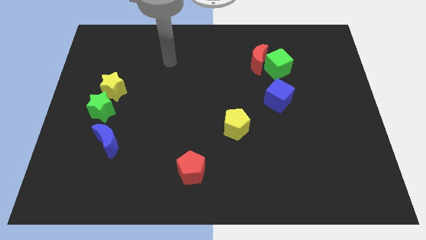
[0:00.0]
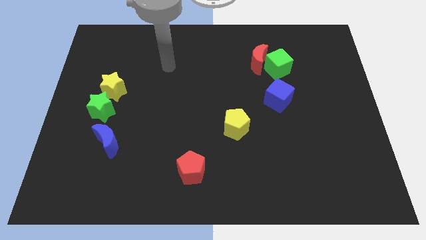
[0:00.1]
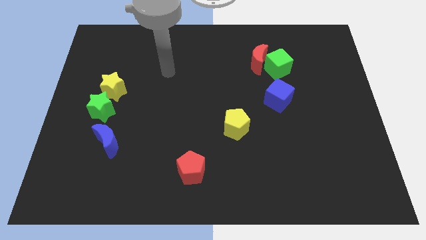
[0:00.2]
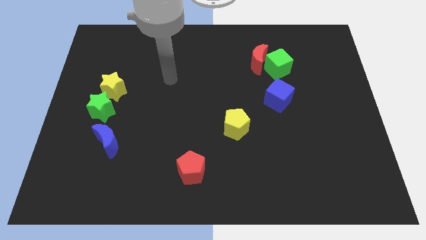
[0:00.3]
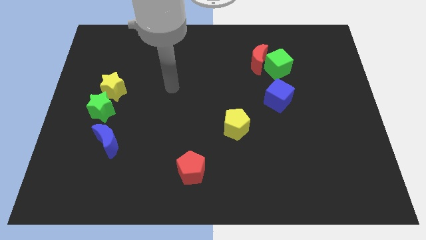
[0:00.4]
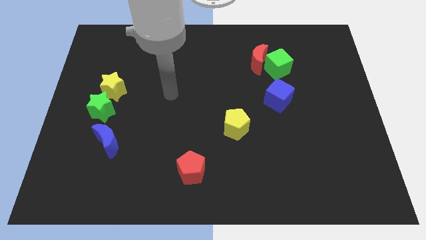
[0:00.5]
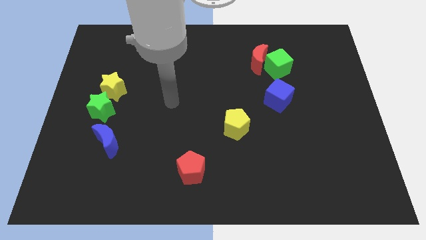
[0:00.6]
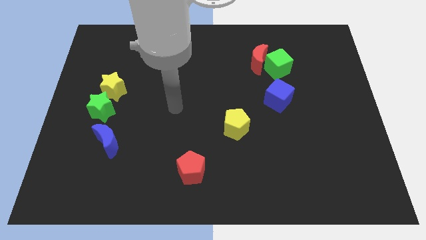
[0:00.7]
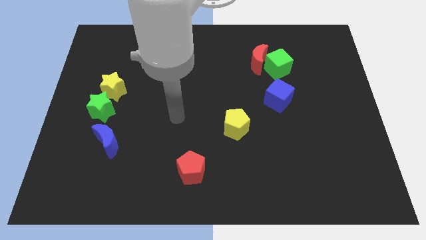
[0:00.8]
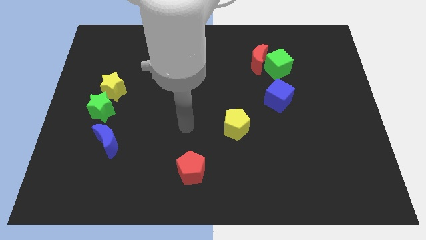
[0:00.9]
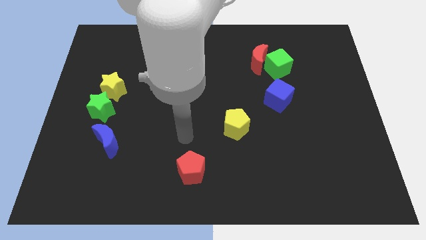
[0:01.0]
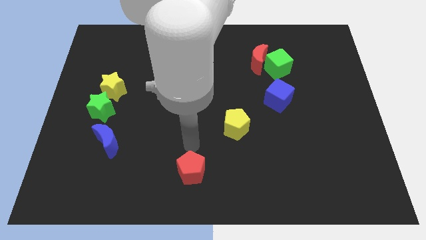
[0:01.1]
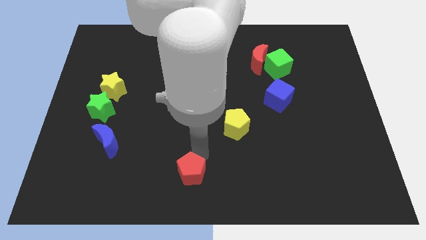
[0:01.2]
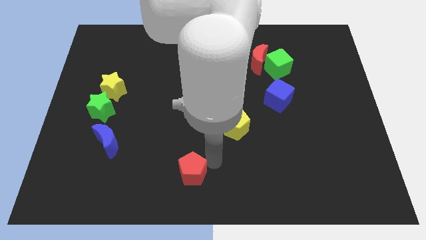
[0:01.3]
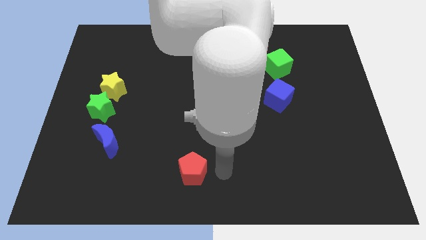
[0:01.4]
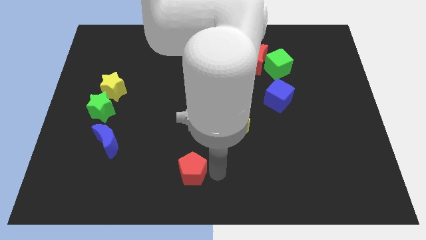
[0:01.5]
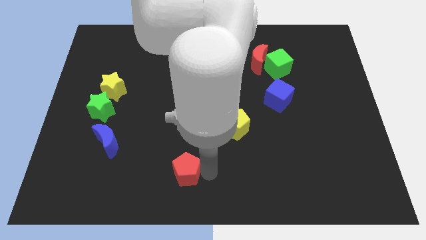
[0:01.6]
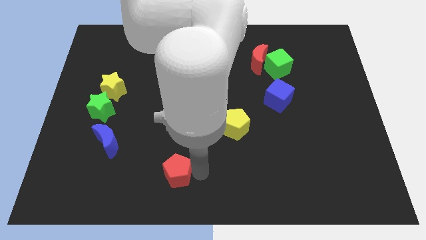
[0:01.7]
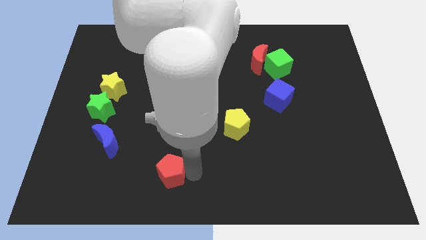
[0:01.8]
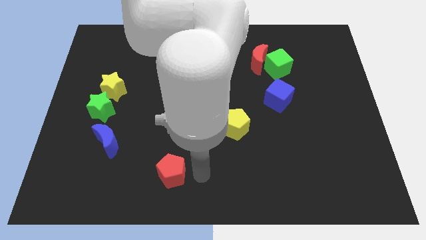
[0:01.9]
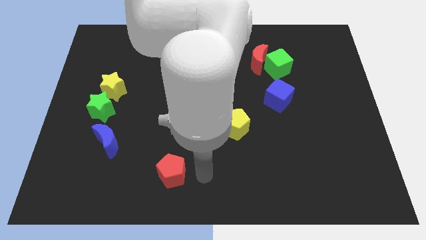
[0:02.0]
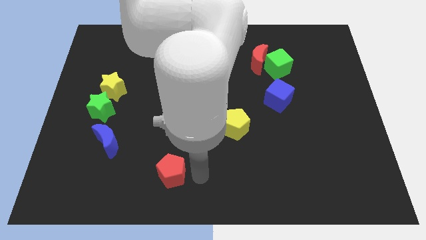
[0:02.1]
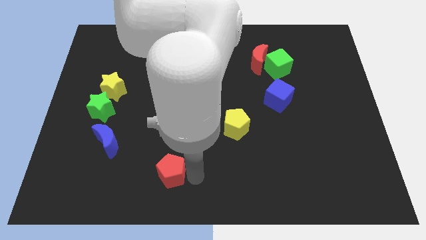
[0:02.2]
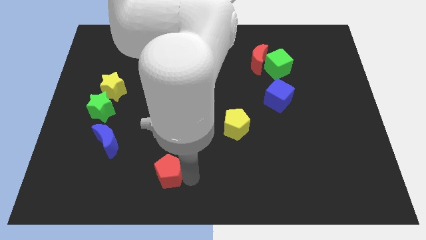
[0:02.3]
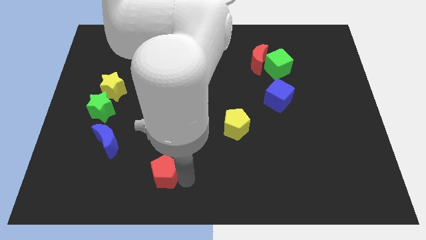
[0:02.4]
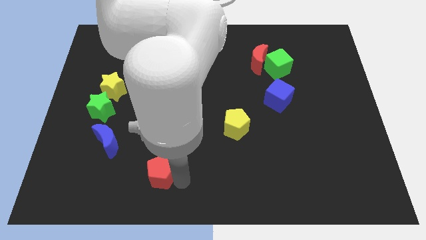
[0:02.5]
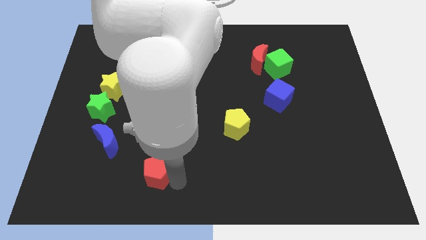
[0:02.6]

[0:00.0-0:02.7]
push the red pentagon left a little

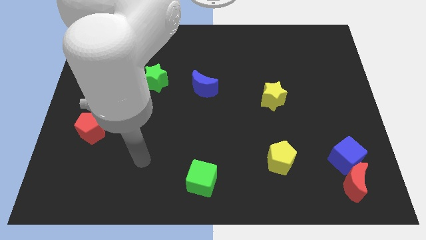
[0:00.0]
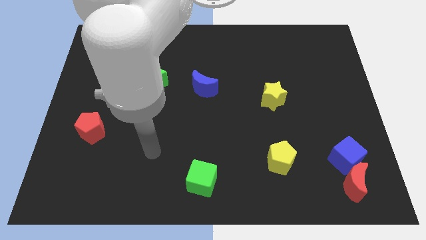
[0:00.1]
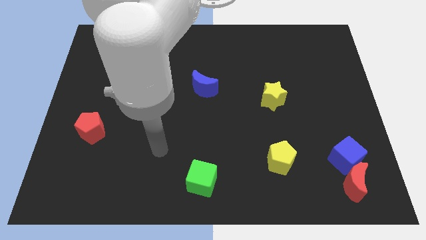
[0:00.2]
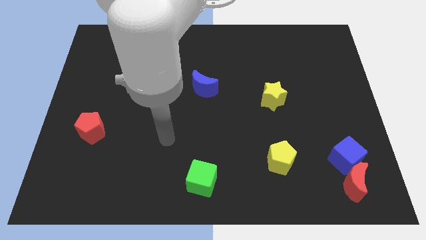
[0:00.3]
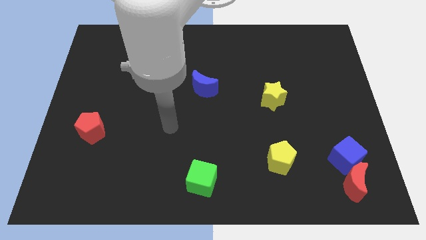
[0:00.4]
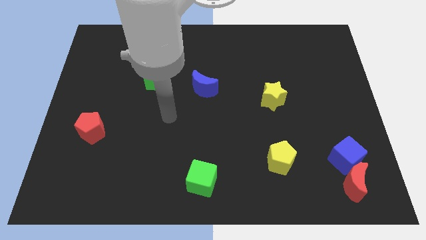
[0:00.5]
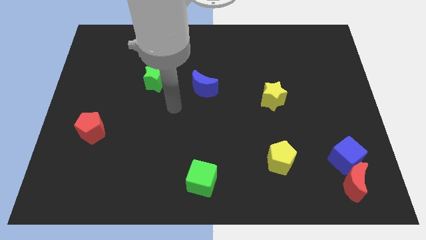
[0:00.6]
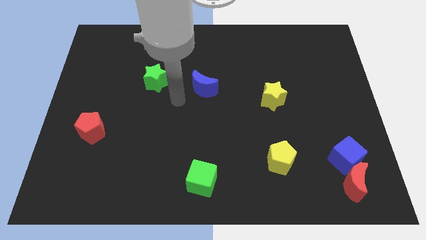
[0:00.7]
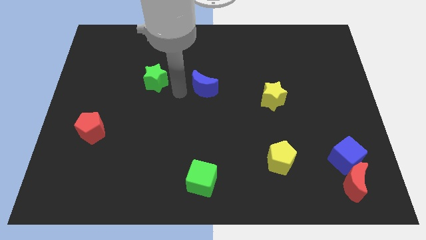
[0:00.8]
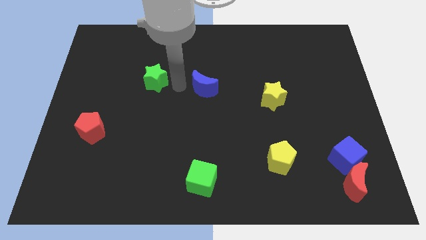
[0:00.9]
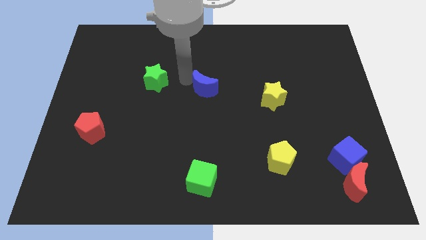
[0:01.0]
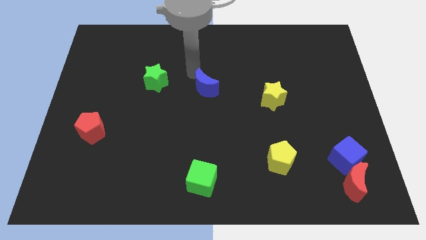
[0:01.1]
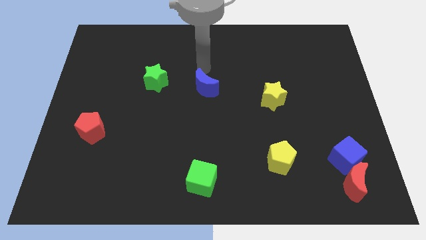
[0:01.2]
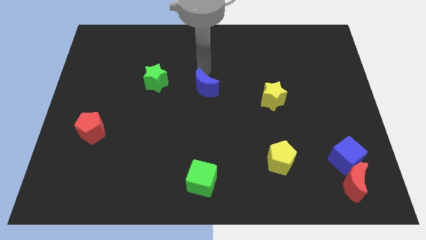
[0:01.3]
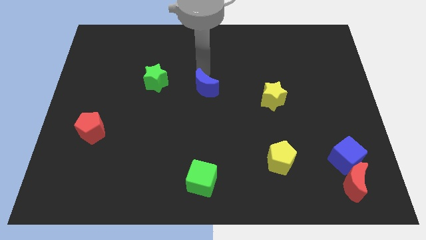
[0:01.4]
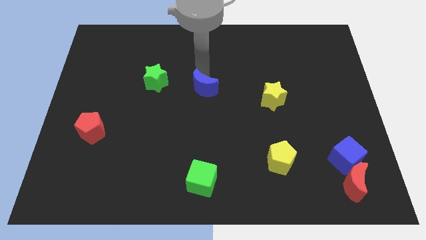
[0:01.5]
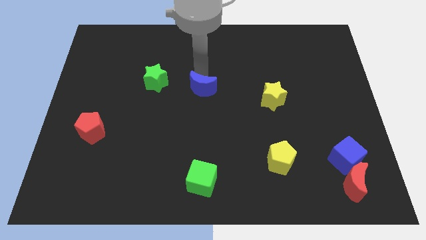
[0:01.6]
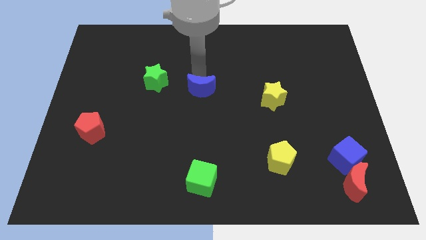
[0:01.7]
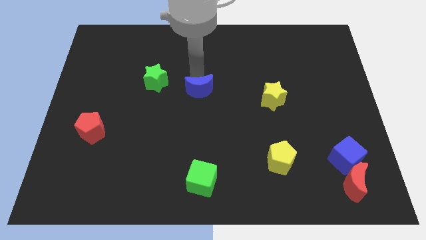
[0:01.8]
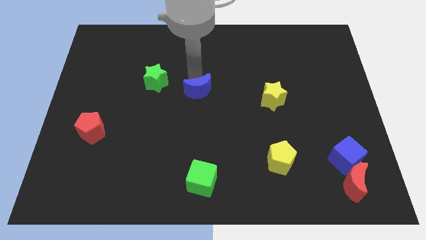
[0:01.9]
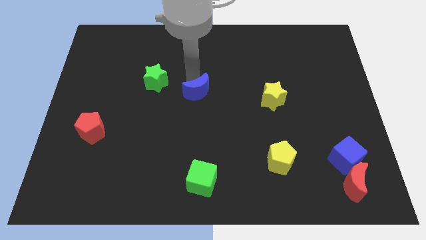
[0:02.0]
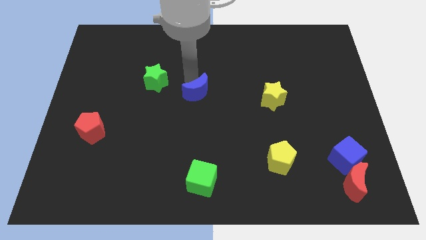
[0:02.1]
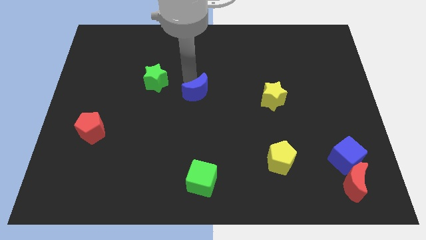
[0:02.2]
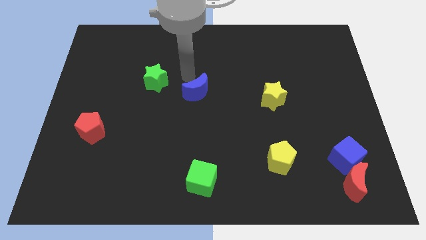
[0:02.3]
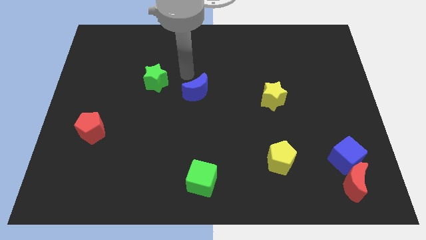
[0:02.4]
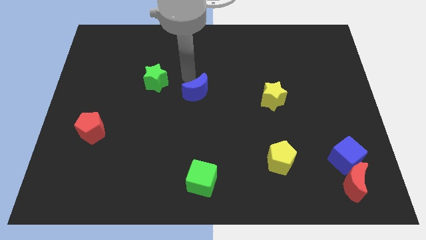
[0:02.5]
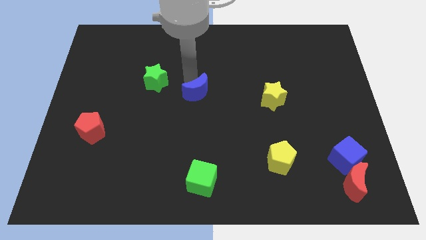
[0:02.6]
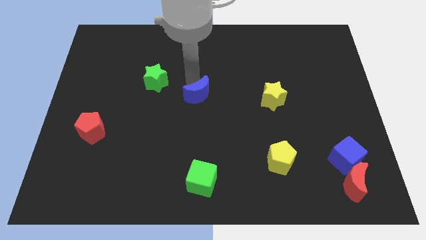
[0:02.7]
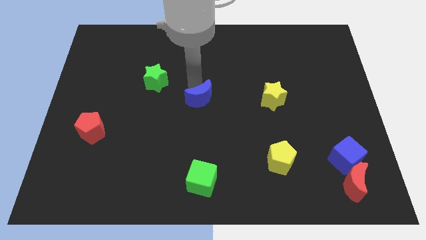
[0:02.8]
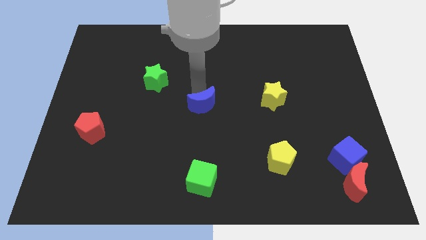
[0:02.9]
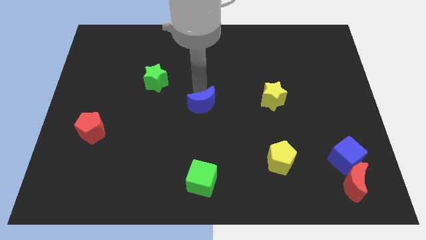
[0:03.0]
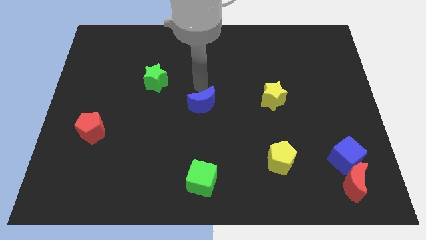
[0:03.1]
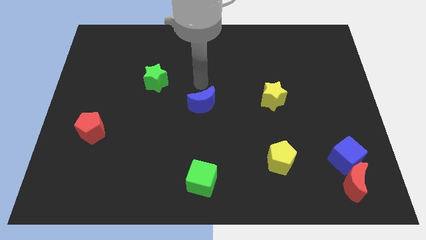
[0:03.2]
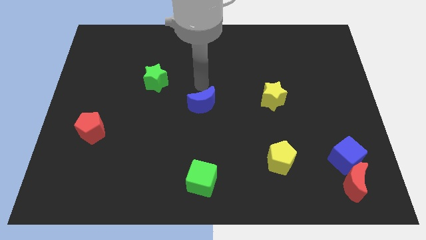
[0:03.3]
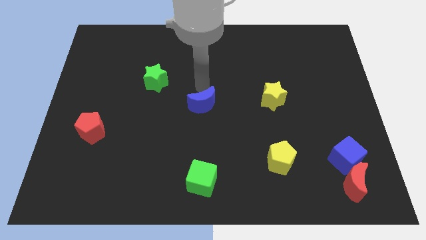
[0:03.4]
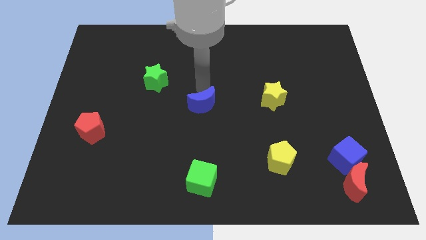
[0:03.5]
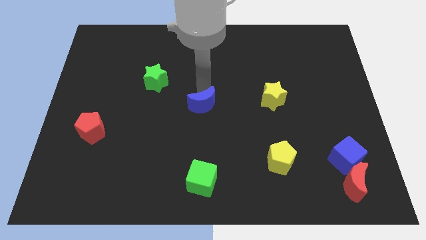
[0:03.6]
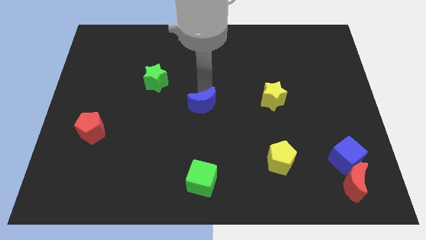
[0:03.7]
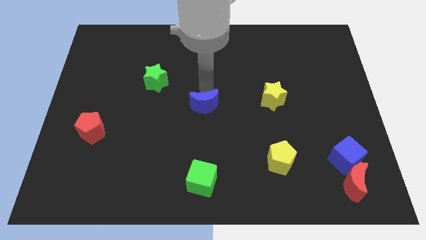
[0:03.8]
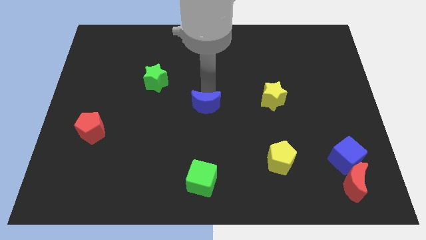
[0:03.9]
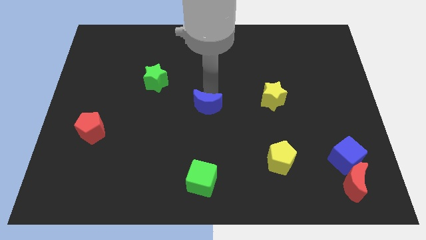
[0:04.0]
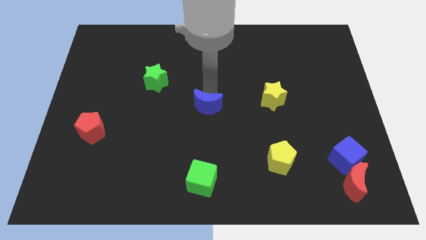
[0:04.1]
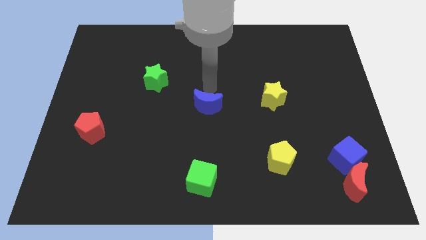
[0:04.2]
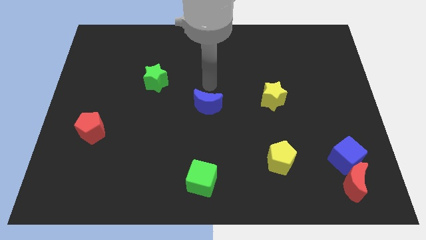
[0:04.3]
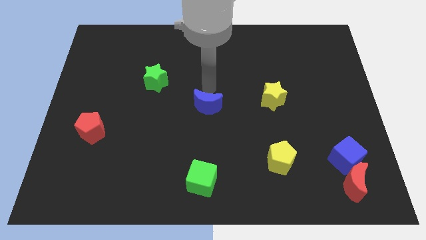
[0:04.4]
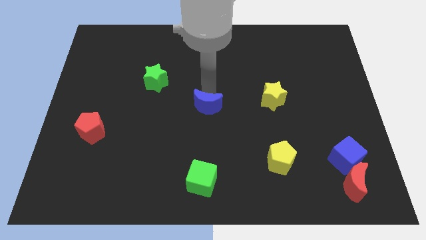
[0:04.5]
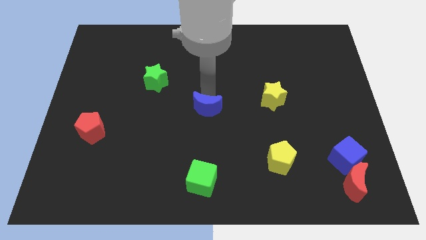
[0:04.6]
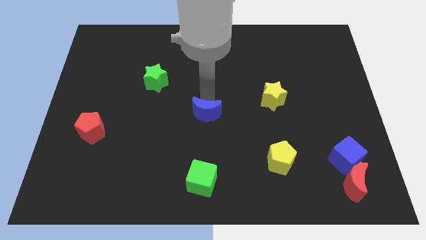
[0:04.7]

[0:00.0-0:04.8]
slide the blue moon down a little

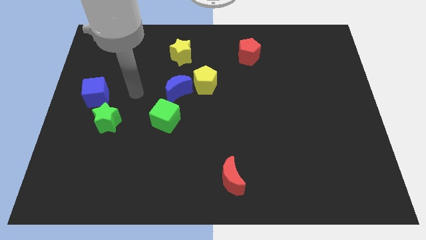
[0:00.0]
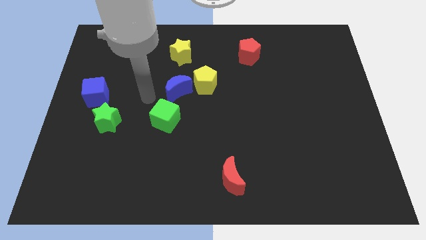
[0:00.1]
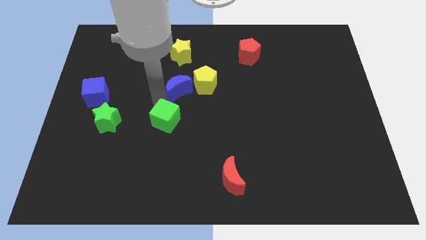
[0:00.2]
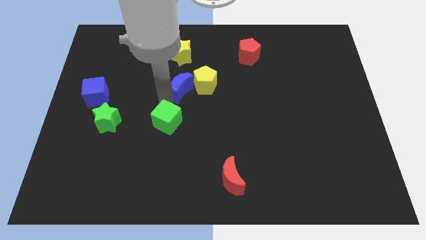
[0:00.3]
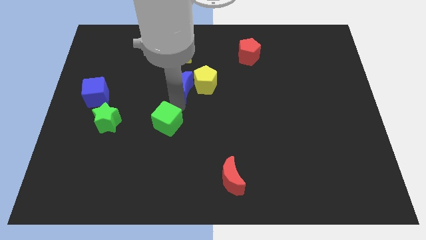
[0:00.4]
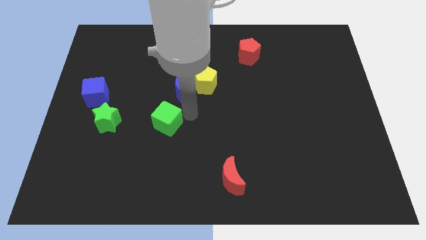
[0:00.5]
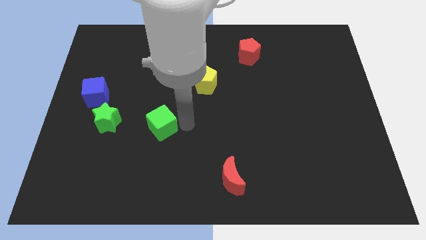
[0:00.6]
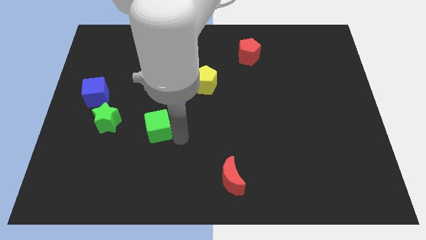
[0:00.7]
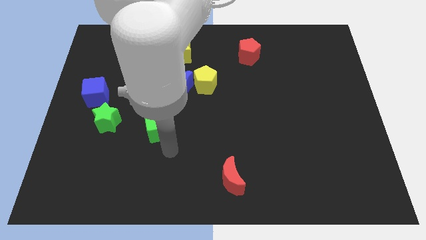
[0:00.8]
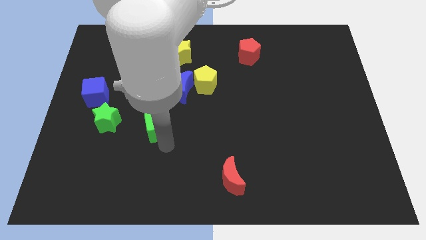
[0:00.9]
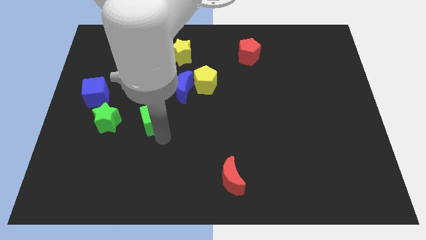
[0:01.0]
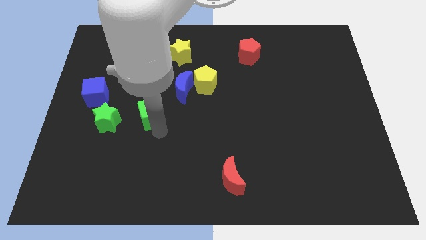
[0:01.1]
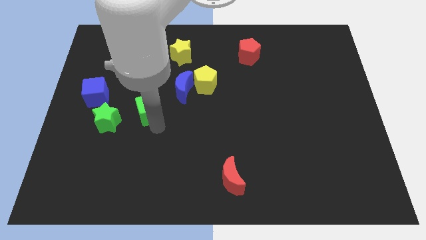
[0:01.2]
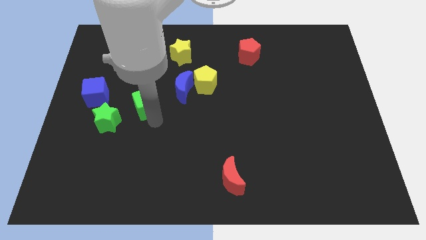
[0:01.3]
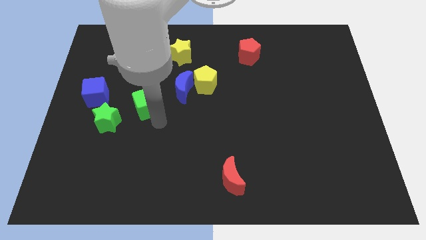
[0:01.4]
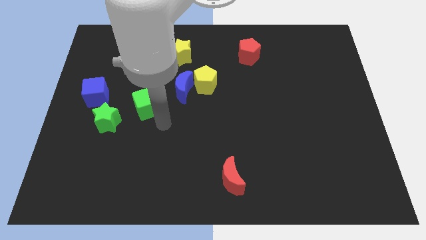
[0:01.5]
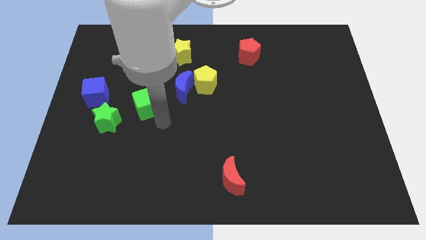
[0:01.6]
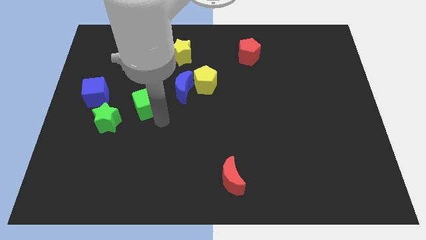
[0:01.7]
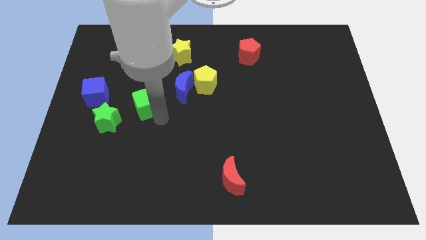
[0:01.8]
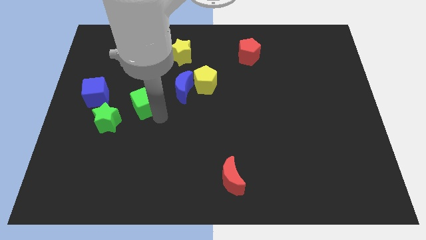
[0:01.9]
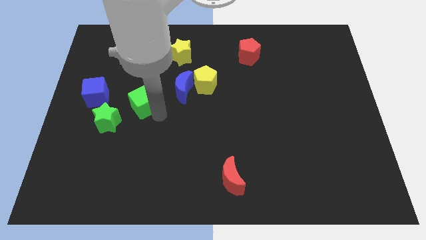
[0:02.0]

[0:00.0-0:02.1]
push the green cube diagonally up and left somewhat
